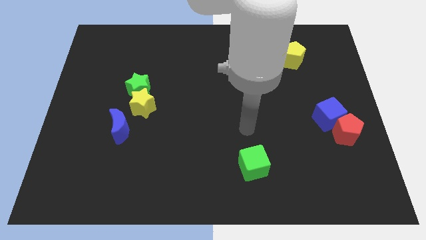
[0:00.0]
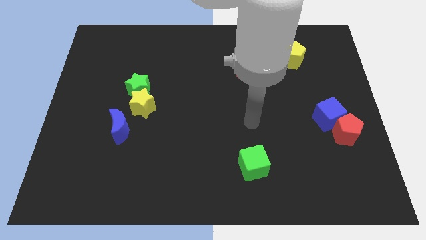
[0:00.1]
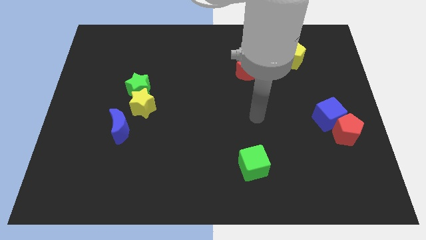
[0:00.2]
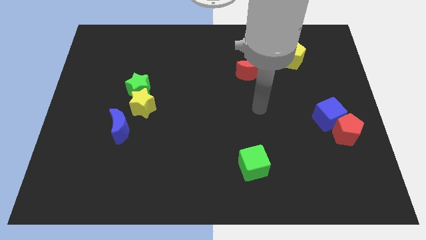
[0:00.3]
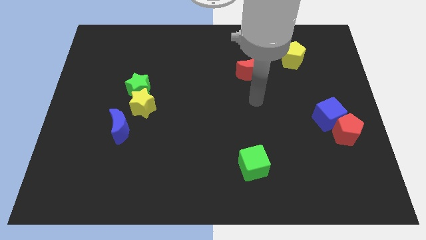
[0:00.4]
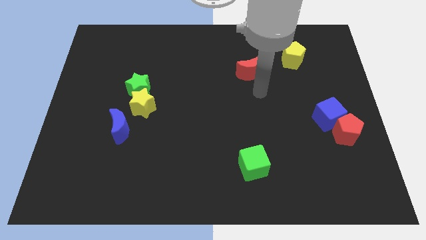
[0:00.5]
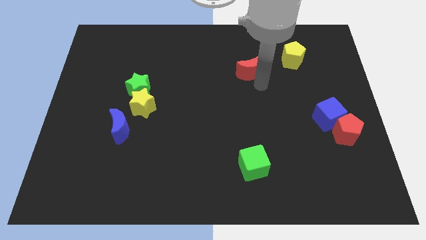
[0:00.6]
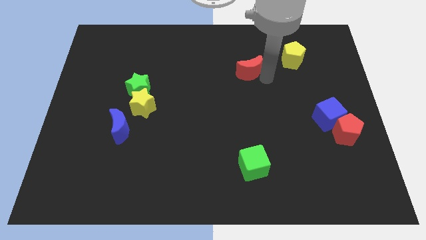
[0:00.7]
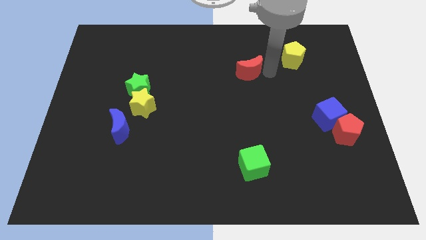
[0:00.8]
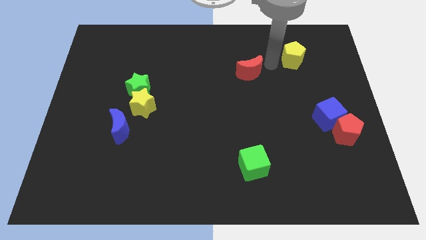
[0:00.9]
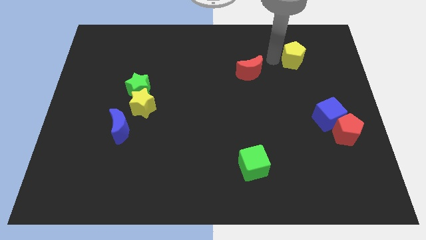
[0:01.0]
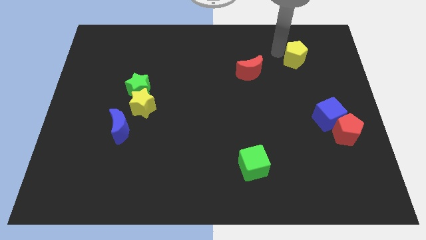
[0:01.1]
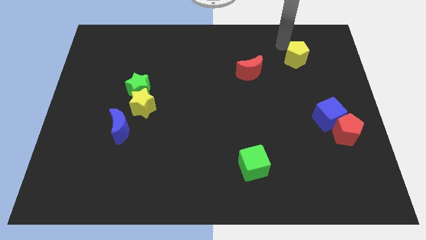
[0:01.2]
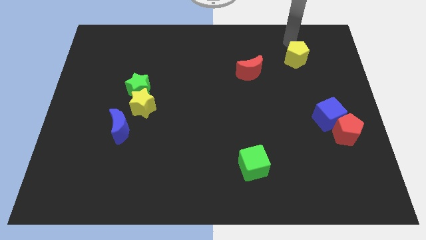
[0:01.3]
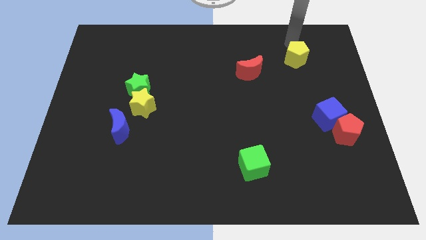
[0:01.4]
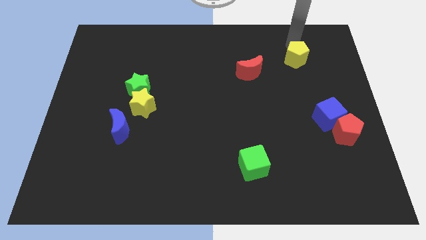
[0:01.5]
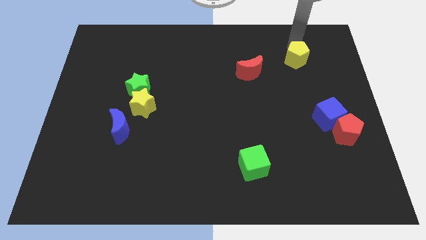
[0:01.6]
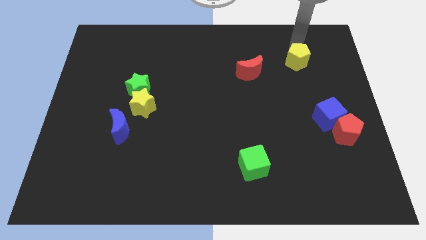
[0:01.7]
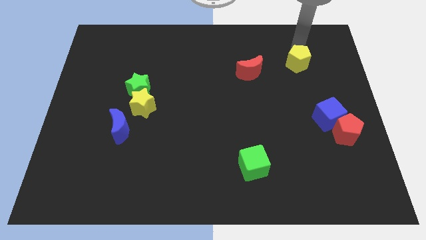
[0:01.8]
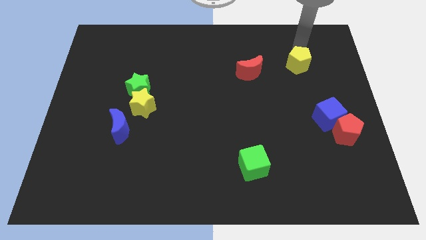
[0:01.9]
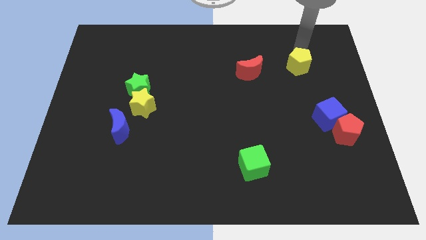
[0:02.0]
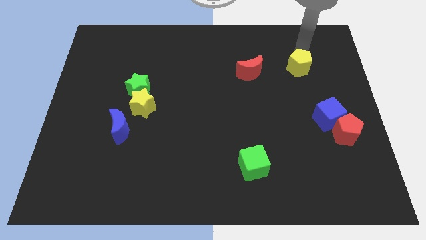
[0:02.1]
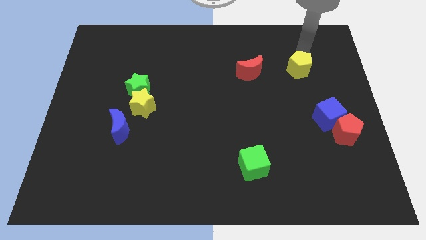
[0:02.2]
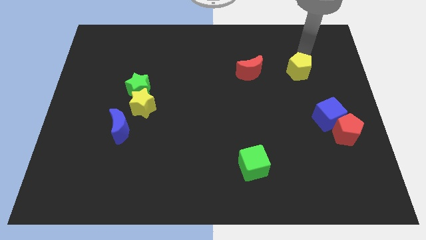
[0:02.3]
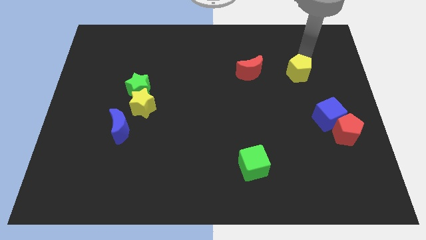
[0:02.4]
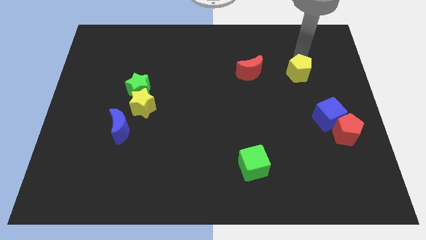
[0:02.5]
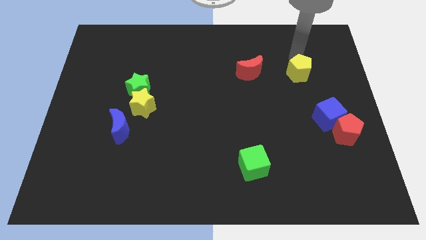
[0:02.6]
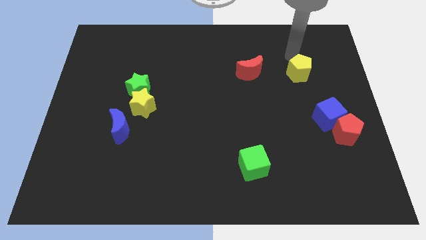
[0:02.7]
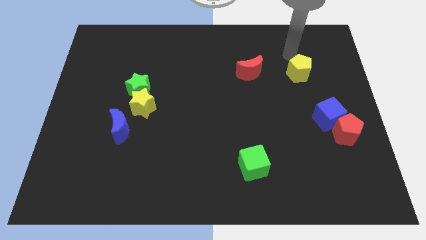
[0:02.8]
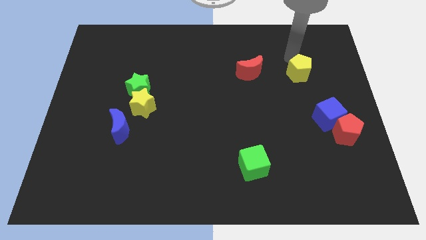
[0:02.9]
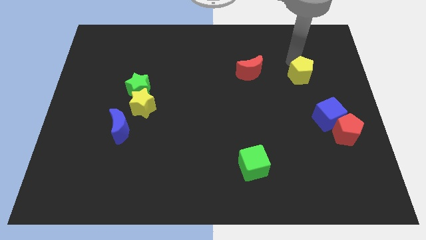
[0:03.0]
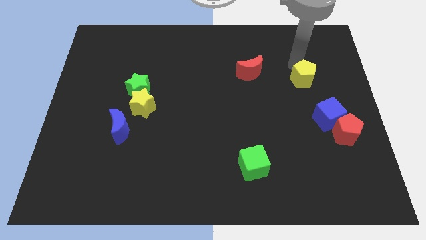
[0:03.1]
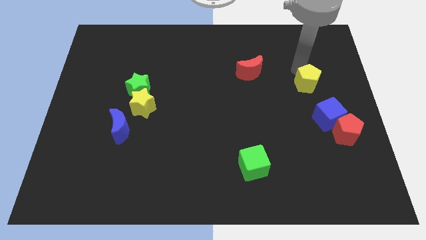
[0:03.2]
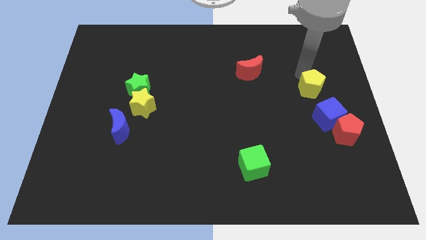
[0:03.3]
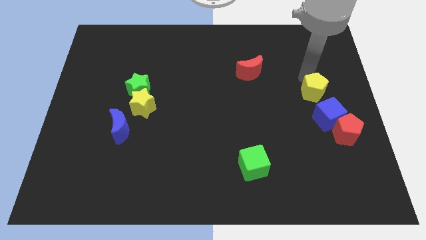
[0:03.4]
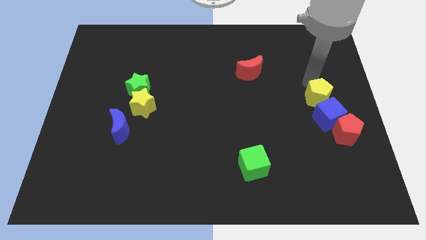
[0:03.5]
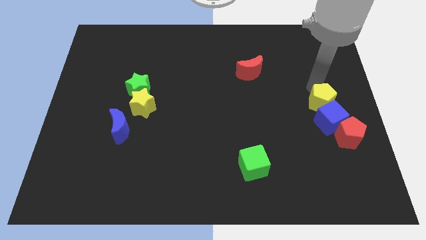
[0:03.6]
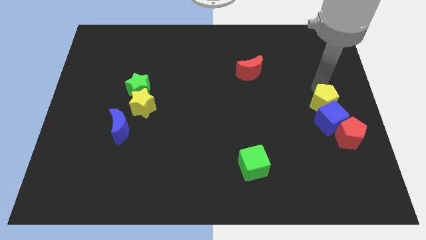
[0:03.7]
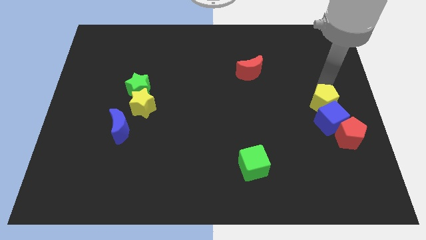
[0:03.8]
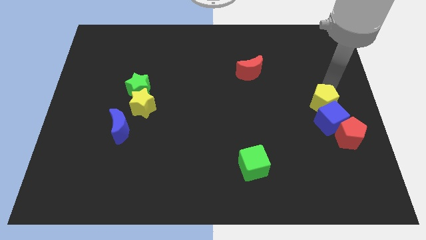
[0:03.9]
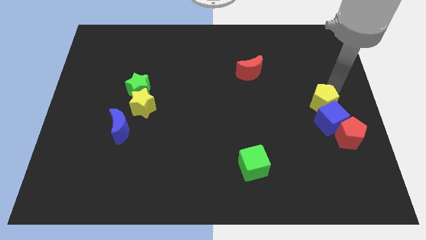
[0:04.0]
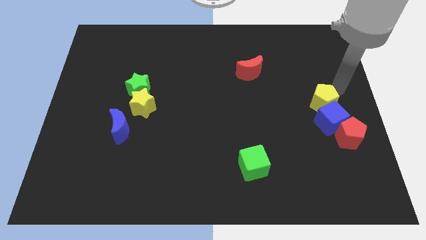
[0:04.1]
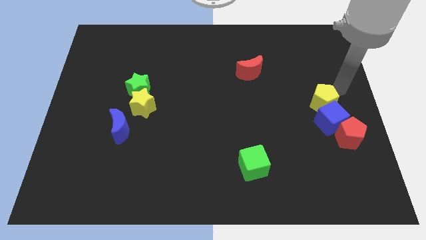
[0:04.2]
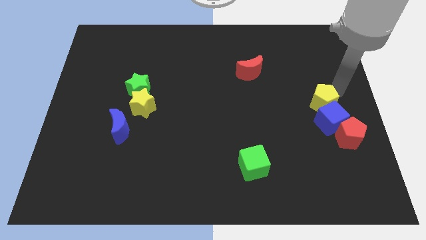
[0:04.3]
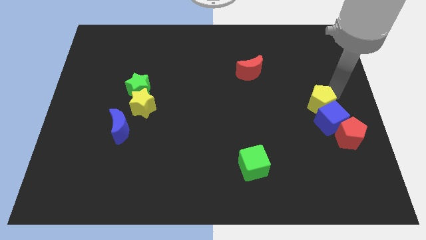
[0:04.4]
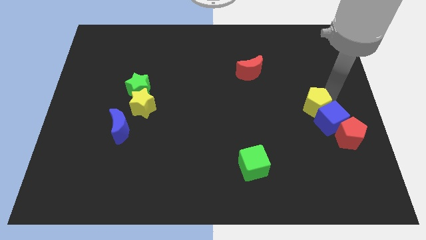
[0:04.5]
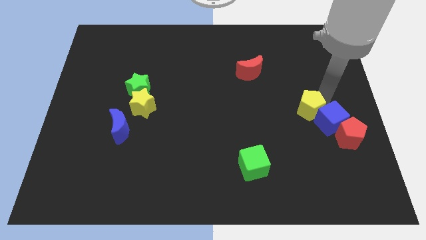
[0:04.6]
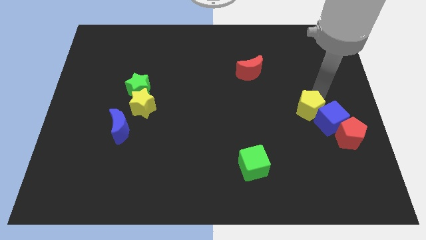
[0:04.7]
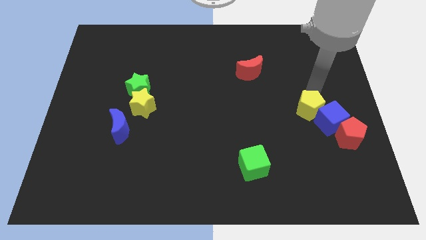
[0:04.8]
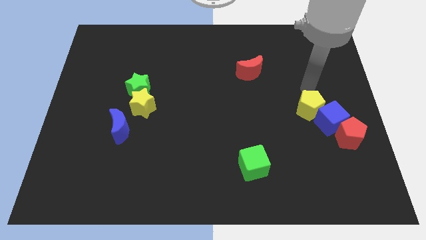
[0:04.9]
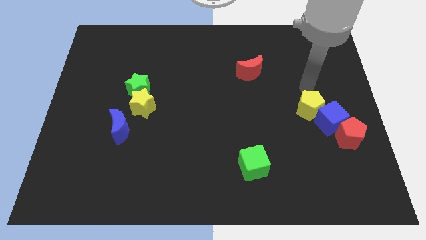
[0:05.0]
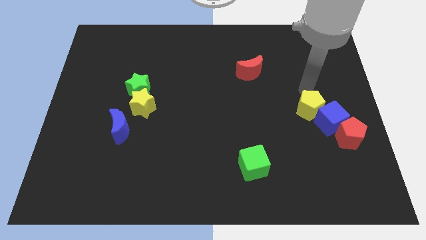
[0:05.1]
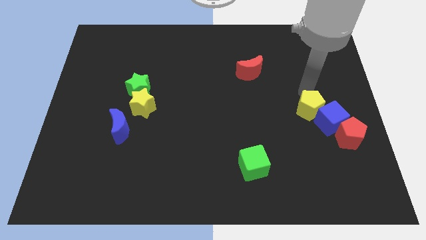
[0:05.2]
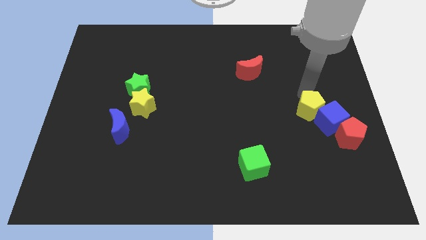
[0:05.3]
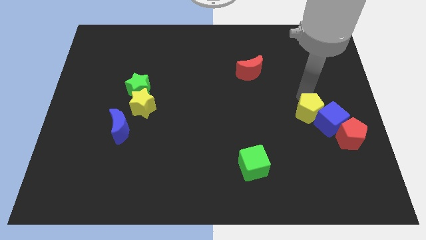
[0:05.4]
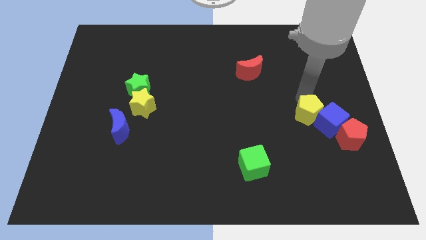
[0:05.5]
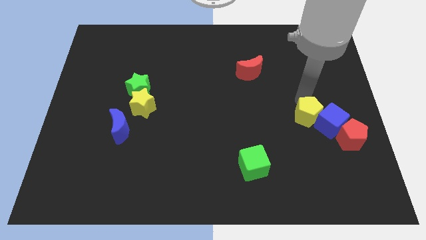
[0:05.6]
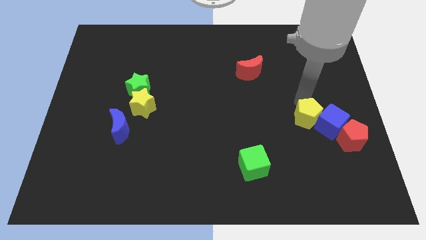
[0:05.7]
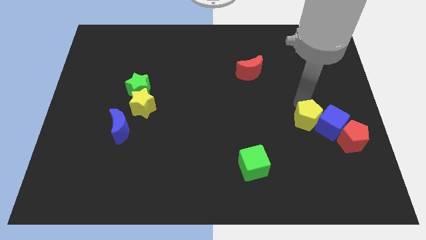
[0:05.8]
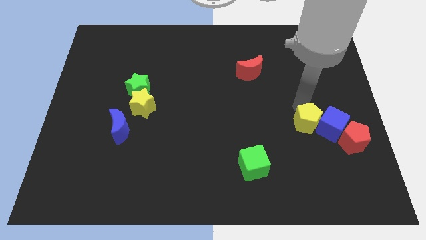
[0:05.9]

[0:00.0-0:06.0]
move the yellow pentagon downwards

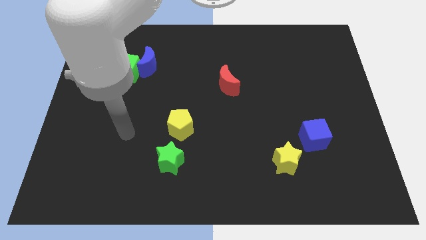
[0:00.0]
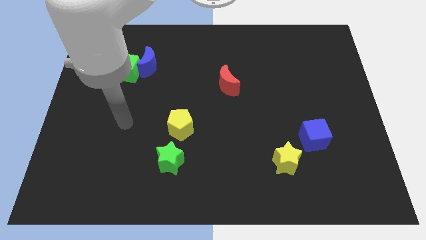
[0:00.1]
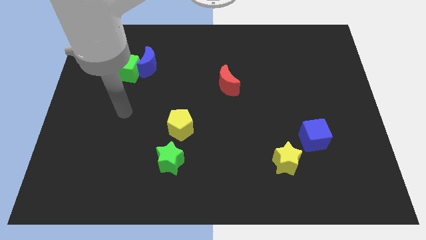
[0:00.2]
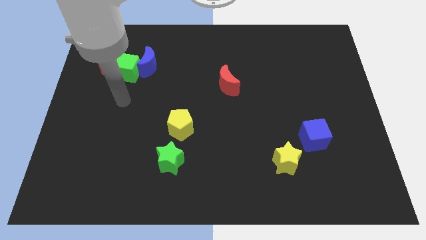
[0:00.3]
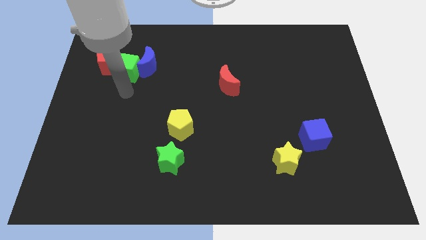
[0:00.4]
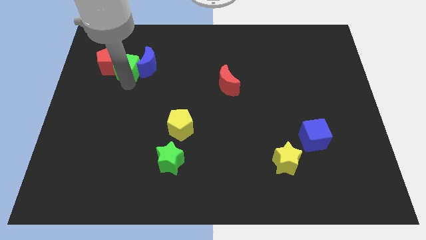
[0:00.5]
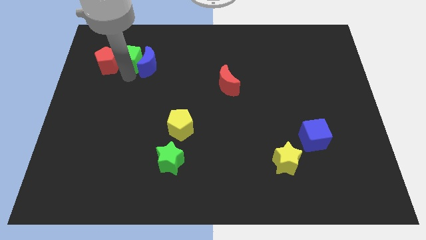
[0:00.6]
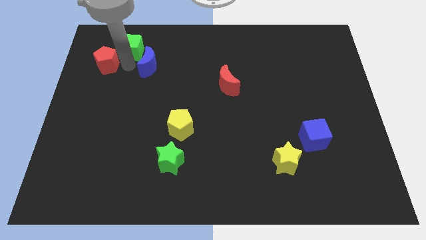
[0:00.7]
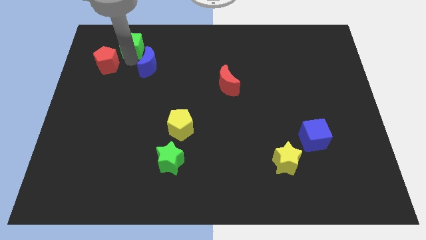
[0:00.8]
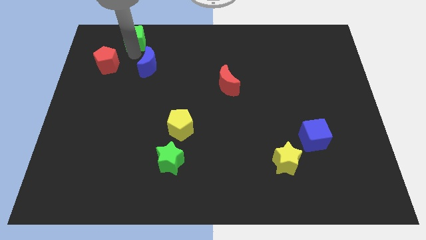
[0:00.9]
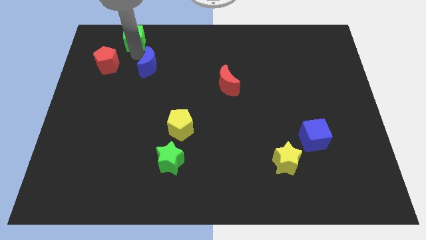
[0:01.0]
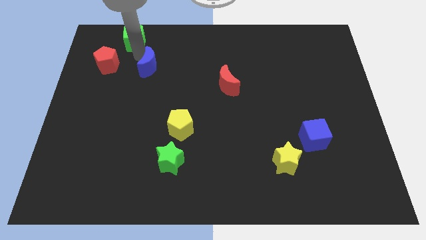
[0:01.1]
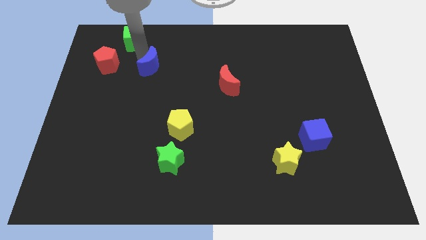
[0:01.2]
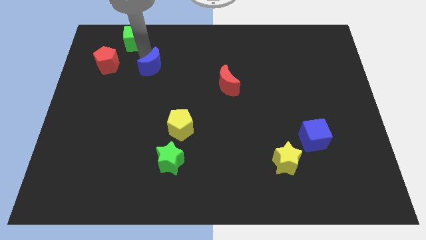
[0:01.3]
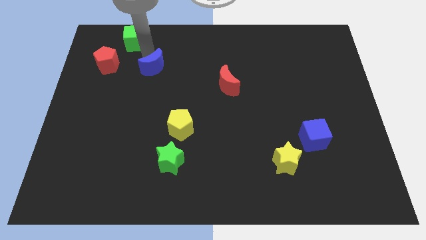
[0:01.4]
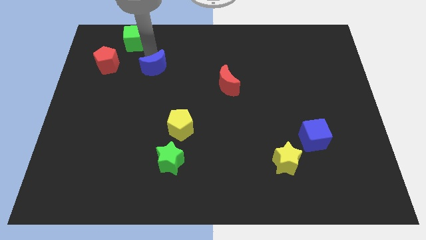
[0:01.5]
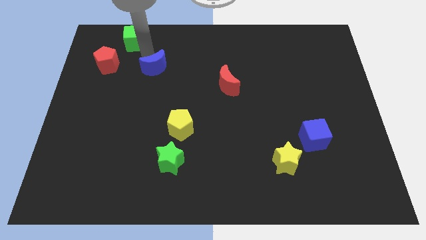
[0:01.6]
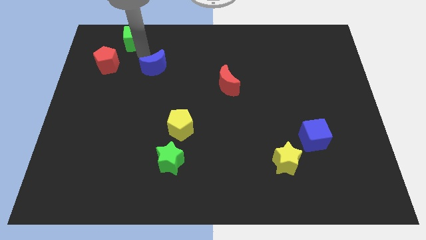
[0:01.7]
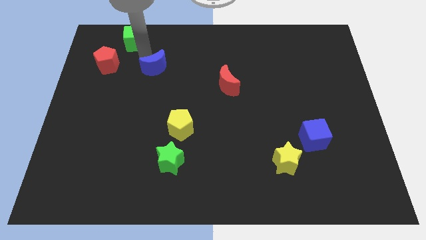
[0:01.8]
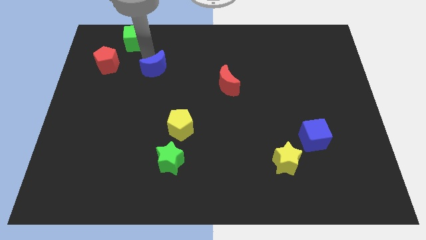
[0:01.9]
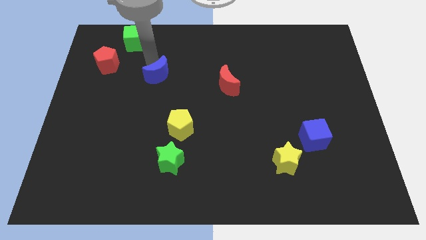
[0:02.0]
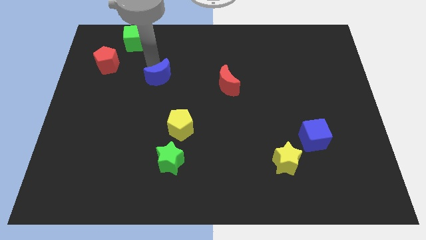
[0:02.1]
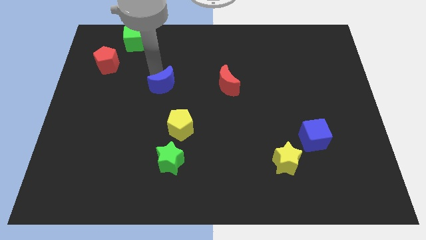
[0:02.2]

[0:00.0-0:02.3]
push the blue moon slightly down and to the right
